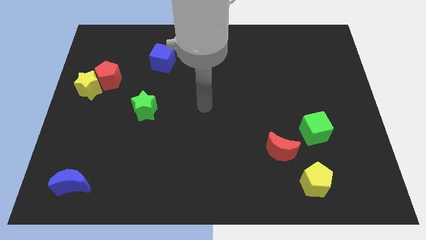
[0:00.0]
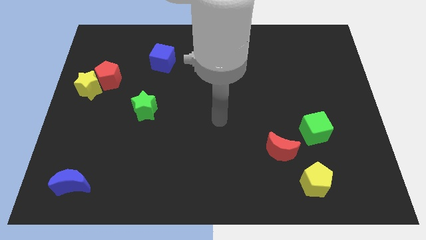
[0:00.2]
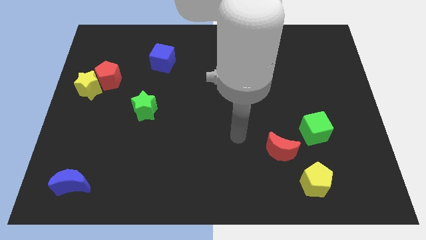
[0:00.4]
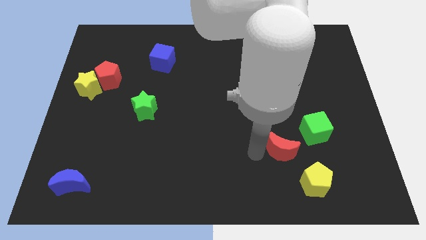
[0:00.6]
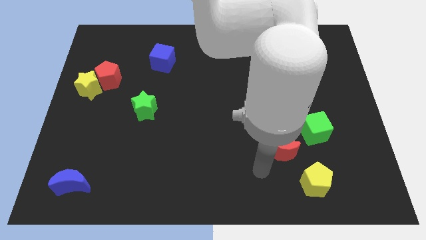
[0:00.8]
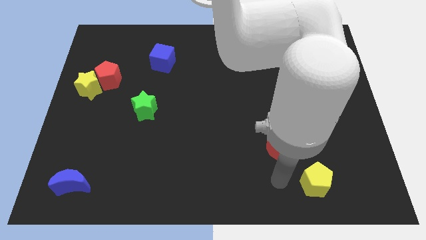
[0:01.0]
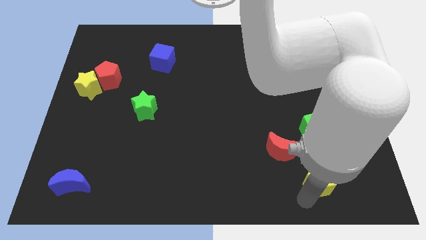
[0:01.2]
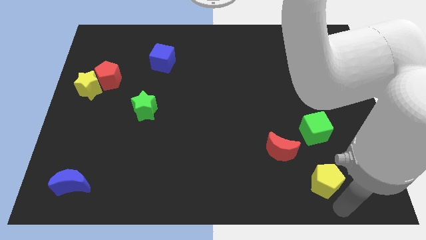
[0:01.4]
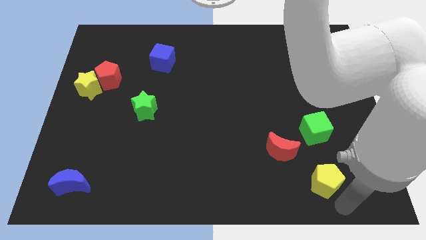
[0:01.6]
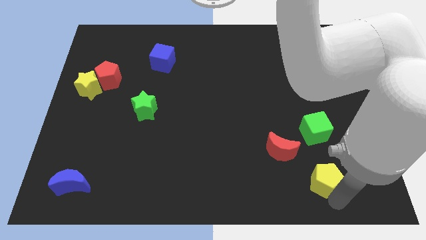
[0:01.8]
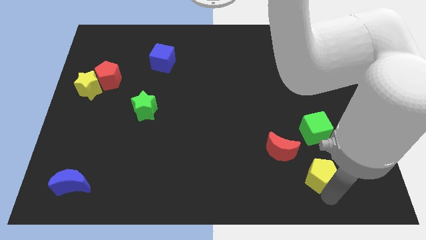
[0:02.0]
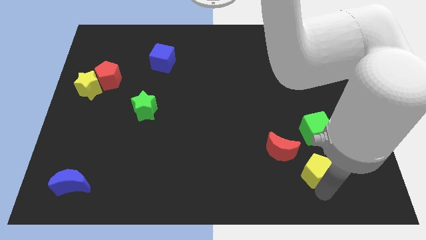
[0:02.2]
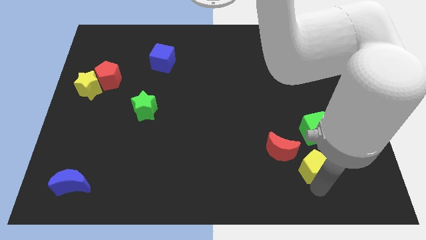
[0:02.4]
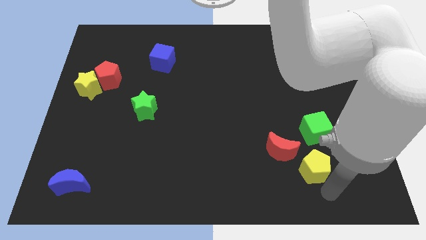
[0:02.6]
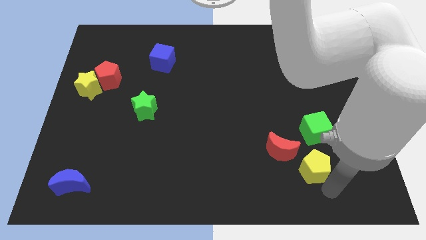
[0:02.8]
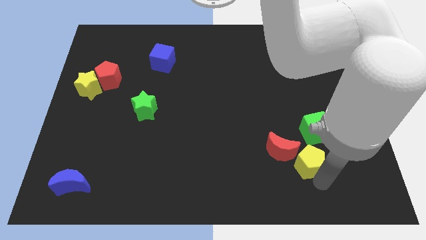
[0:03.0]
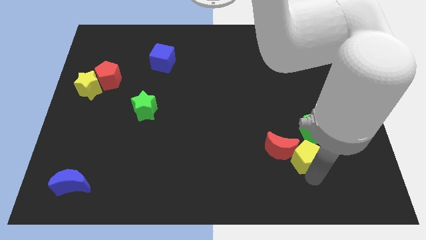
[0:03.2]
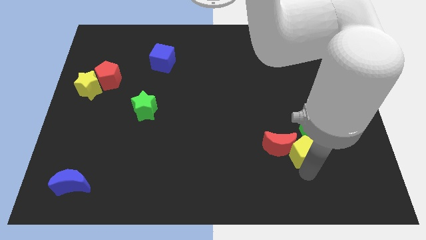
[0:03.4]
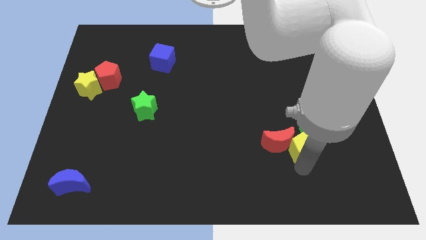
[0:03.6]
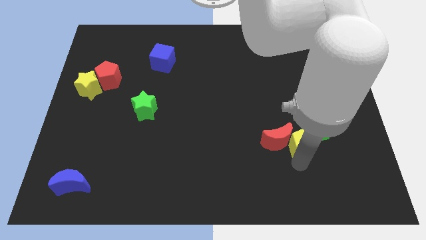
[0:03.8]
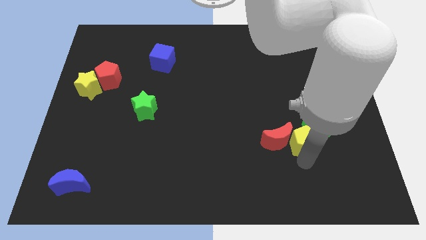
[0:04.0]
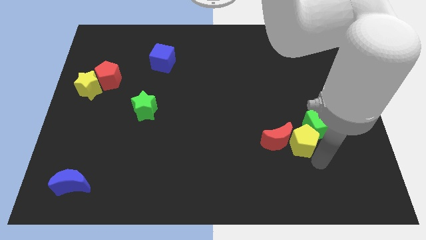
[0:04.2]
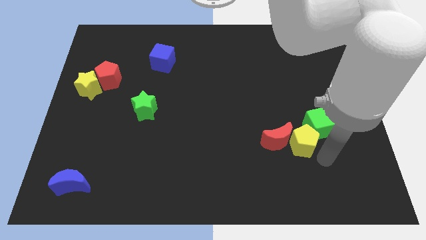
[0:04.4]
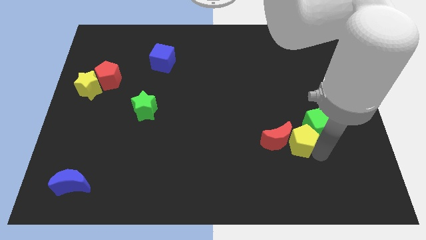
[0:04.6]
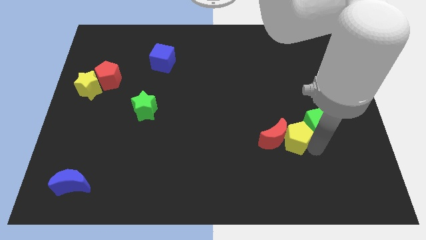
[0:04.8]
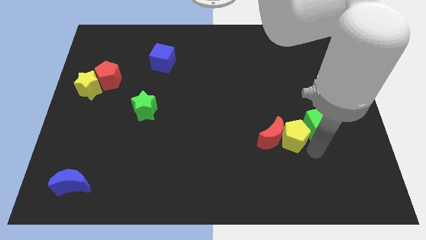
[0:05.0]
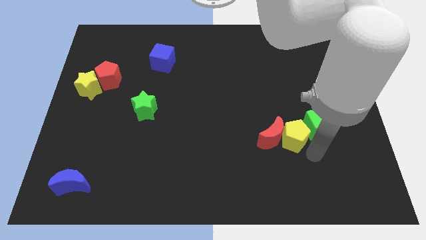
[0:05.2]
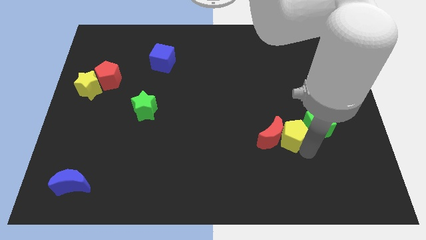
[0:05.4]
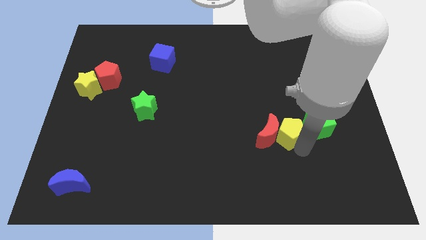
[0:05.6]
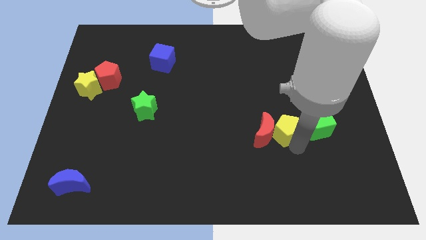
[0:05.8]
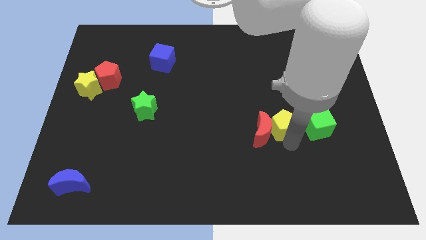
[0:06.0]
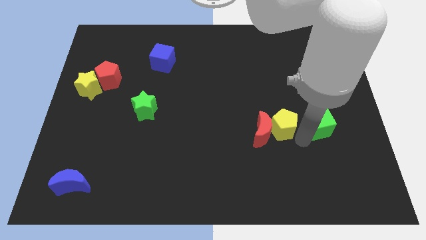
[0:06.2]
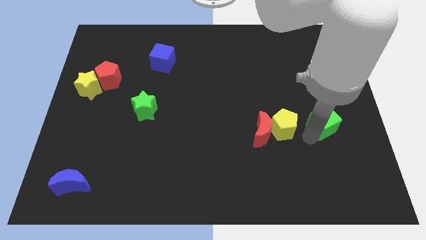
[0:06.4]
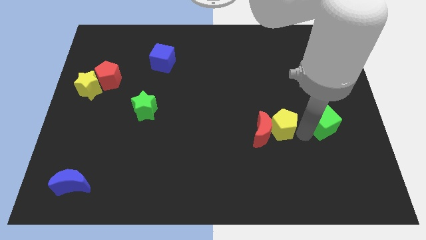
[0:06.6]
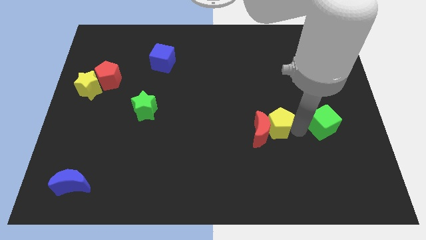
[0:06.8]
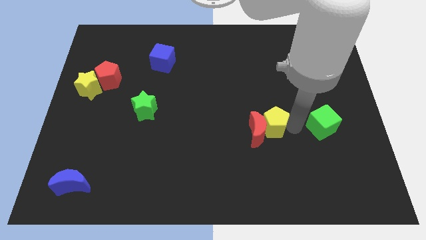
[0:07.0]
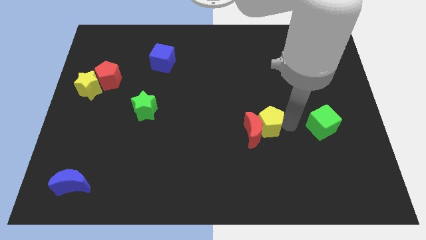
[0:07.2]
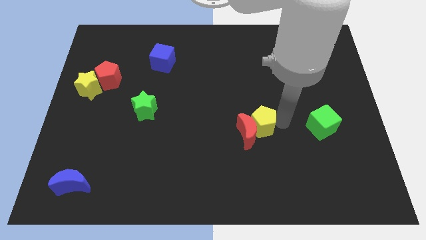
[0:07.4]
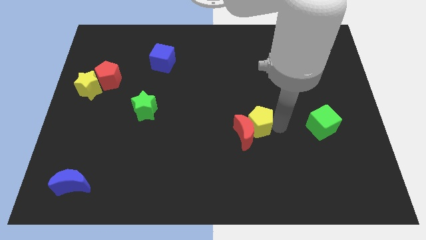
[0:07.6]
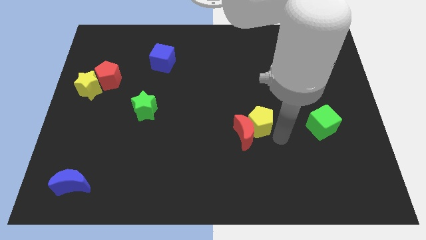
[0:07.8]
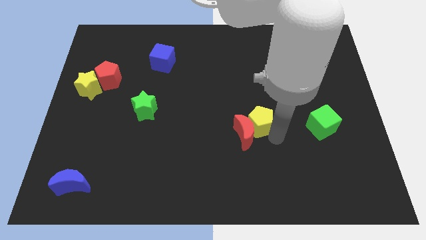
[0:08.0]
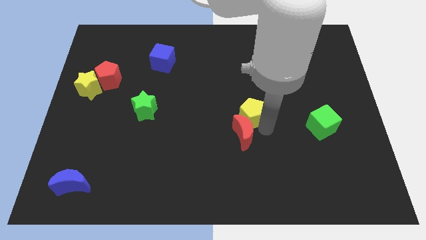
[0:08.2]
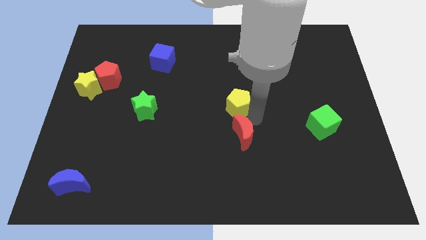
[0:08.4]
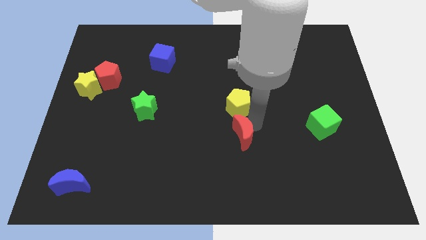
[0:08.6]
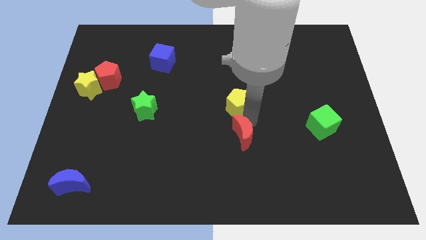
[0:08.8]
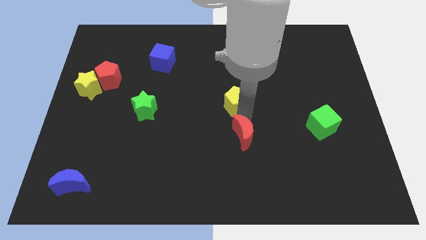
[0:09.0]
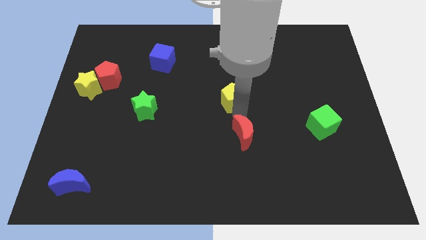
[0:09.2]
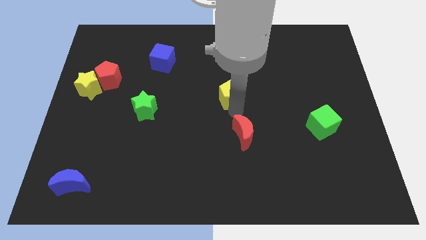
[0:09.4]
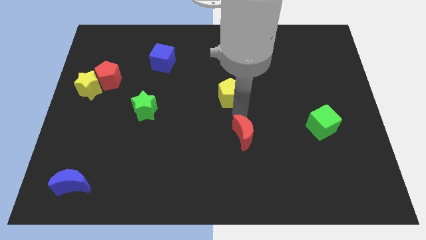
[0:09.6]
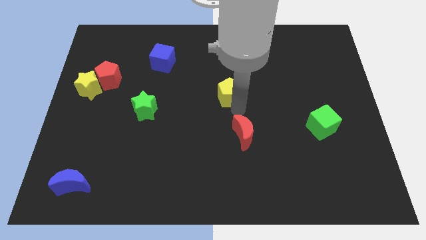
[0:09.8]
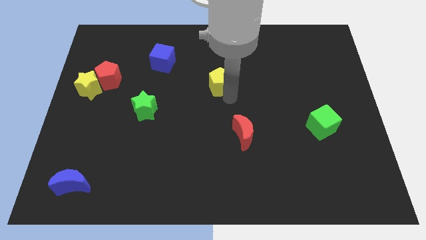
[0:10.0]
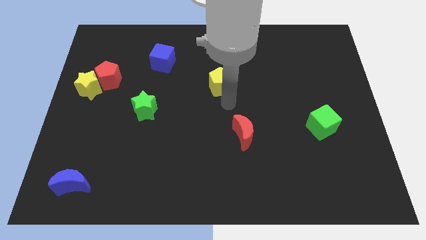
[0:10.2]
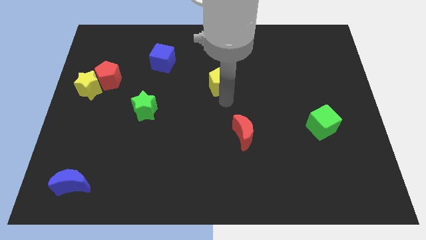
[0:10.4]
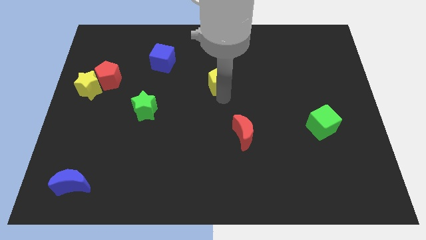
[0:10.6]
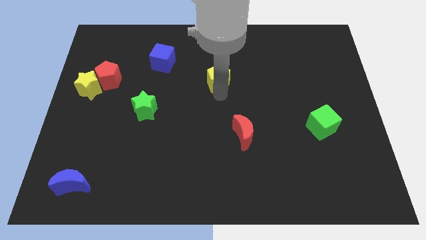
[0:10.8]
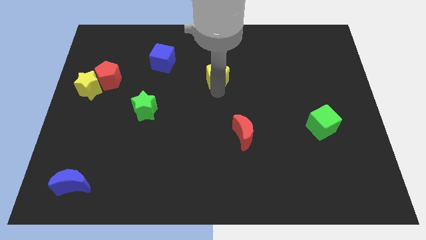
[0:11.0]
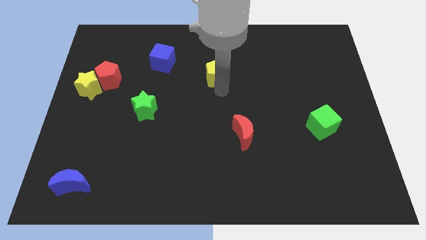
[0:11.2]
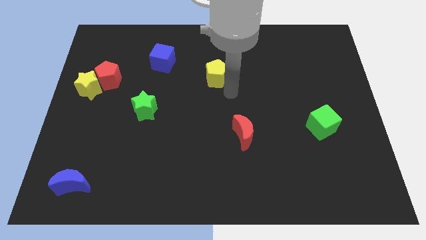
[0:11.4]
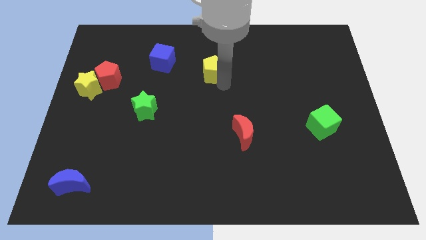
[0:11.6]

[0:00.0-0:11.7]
push the yellow pentagon to the right of the blue cube

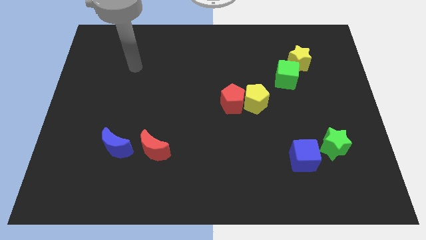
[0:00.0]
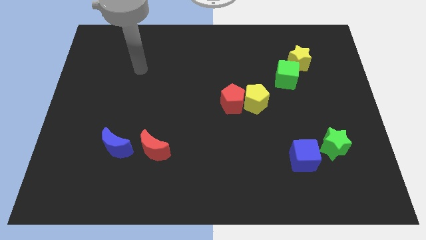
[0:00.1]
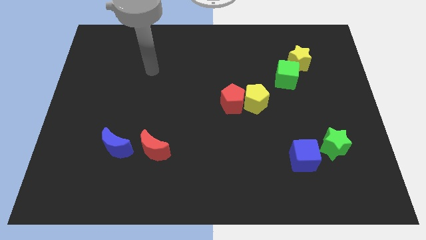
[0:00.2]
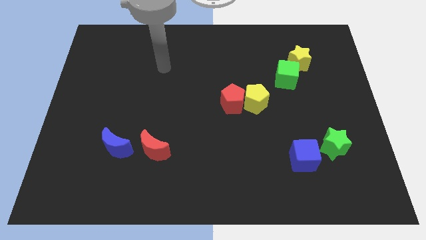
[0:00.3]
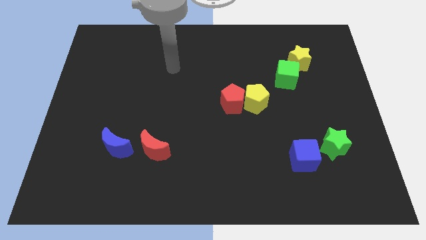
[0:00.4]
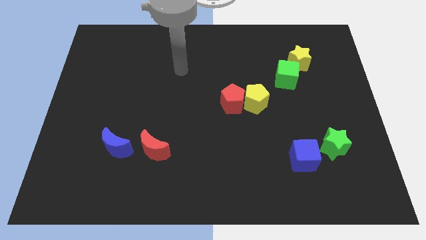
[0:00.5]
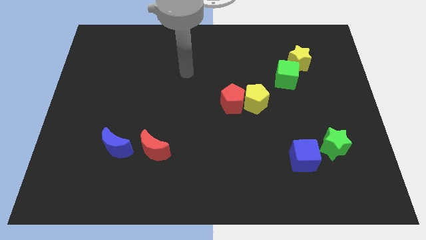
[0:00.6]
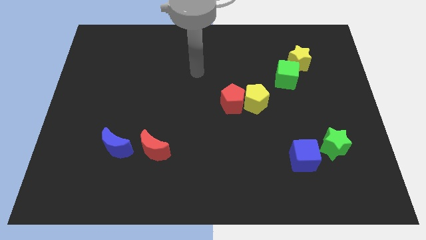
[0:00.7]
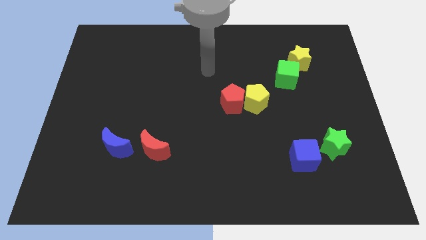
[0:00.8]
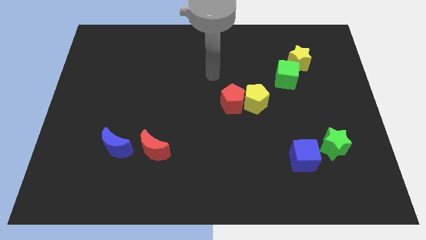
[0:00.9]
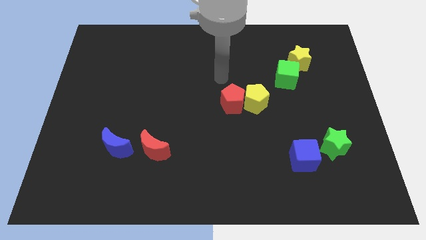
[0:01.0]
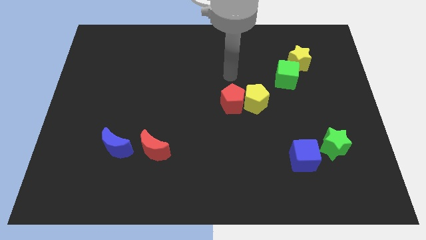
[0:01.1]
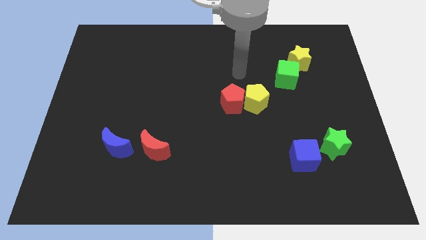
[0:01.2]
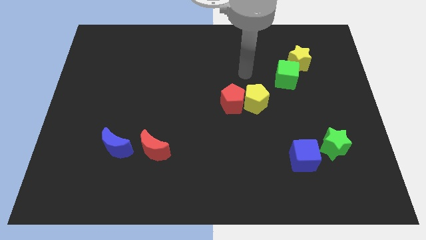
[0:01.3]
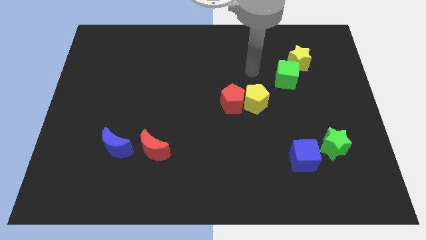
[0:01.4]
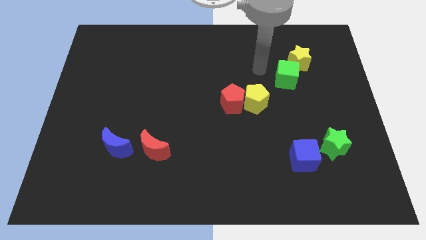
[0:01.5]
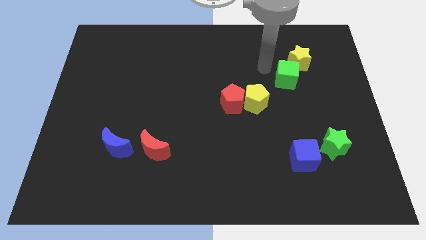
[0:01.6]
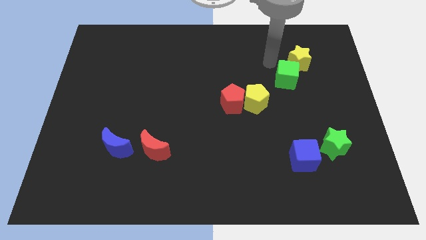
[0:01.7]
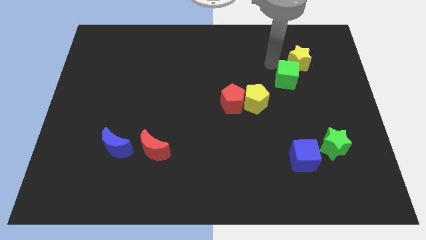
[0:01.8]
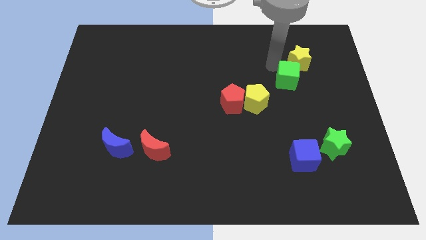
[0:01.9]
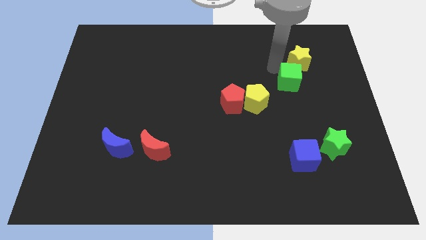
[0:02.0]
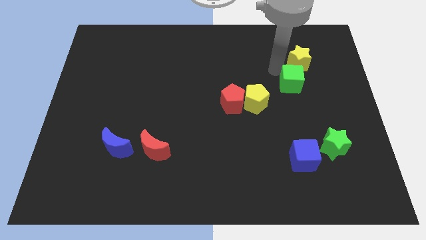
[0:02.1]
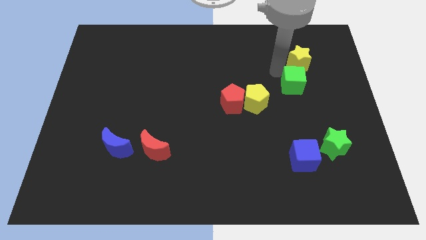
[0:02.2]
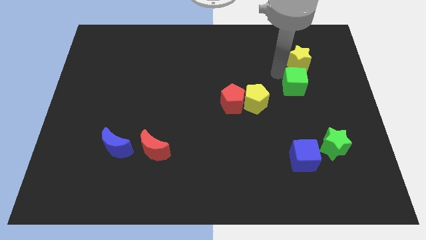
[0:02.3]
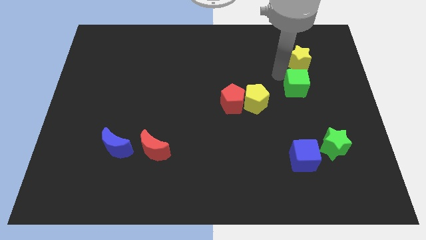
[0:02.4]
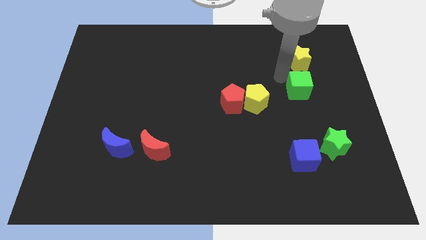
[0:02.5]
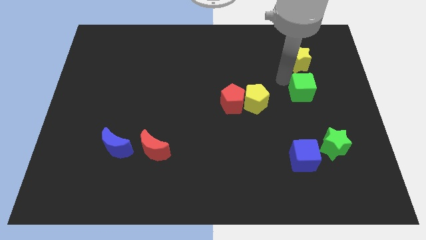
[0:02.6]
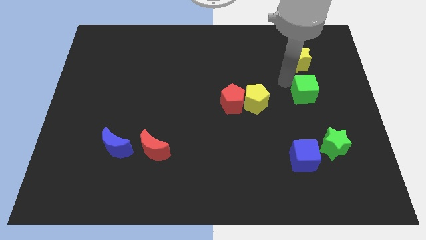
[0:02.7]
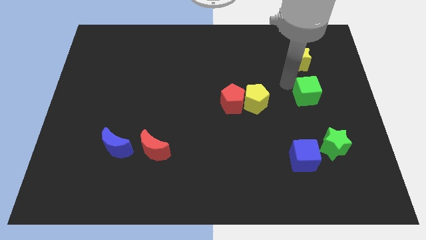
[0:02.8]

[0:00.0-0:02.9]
slide the green cube to the top side of the green star
